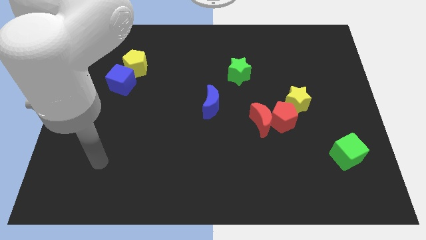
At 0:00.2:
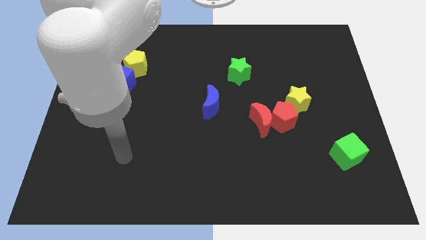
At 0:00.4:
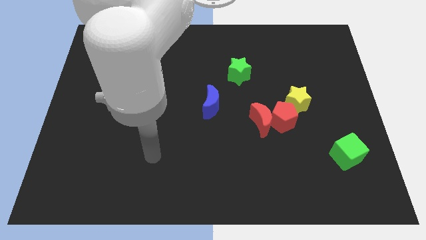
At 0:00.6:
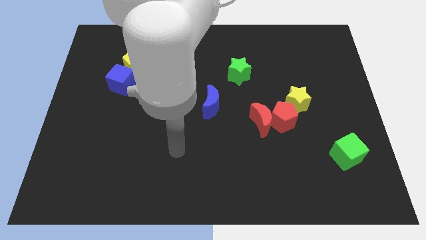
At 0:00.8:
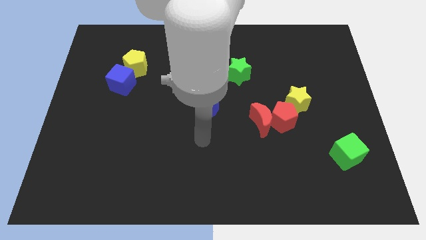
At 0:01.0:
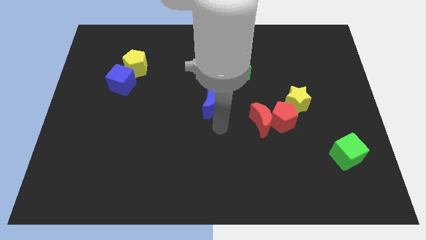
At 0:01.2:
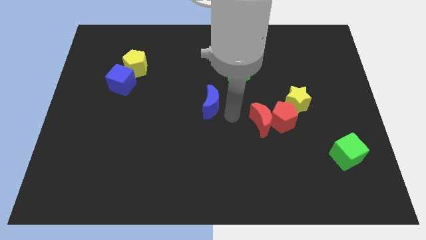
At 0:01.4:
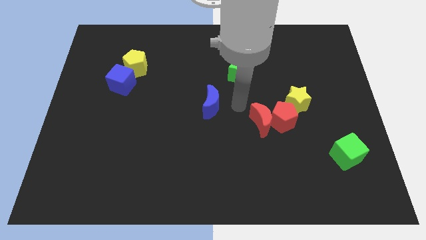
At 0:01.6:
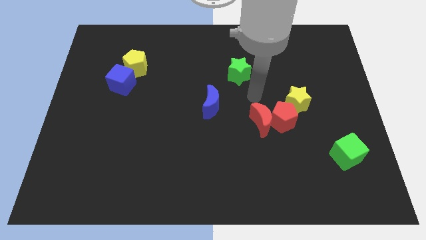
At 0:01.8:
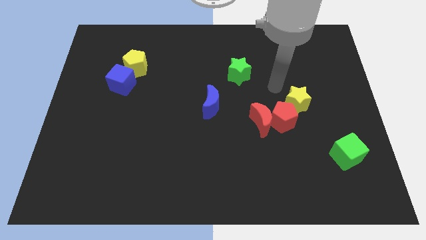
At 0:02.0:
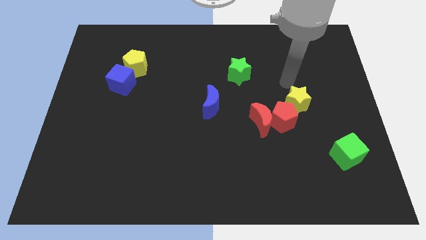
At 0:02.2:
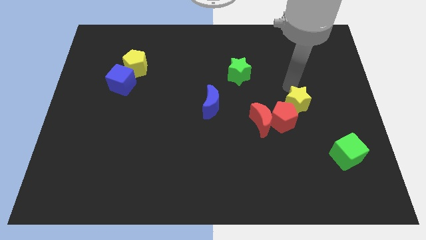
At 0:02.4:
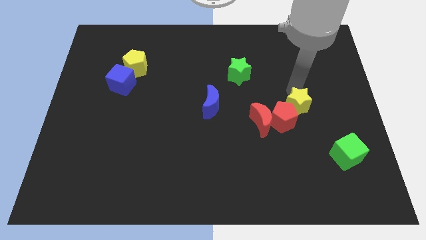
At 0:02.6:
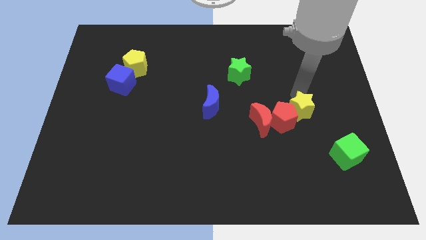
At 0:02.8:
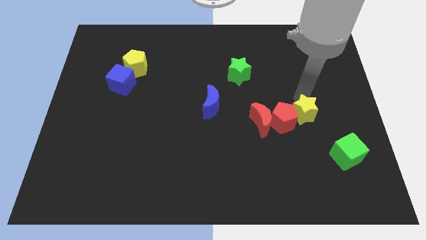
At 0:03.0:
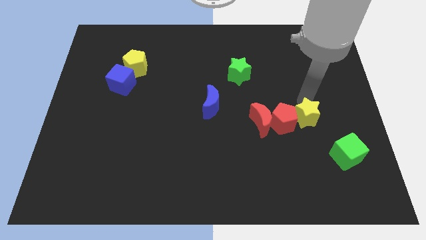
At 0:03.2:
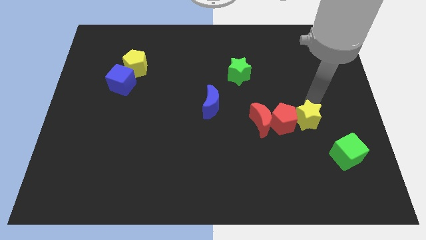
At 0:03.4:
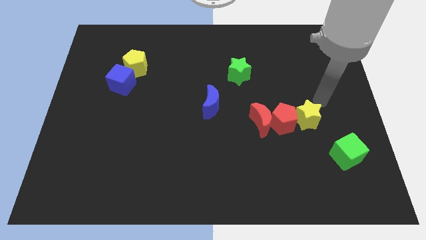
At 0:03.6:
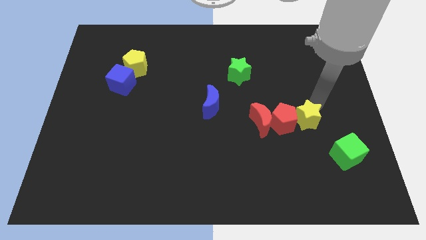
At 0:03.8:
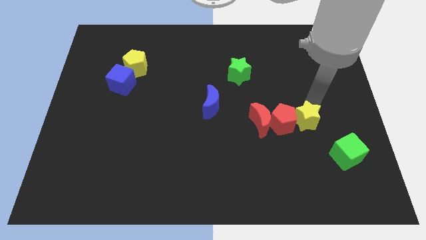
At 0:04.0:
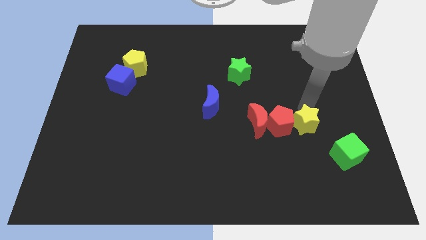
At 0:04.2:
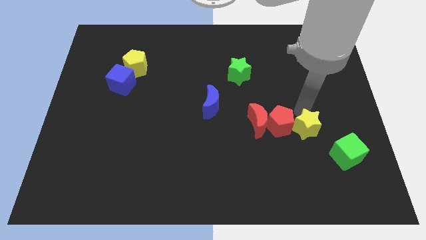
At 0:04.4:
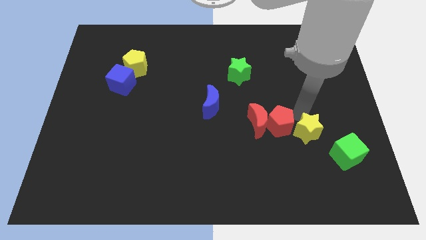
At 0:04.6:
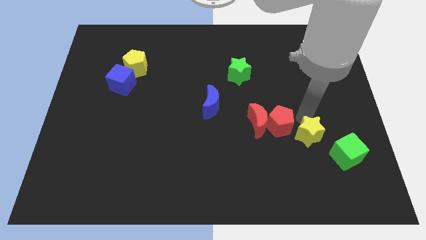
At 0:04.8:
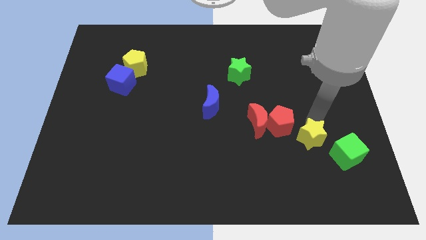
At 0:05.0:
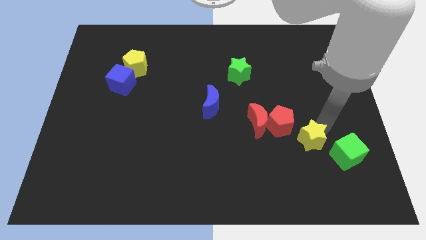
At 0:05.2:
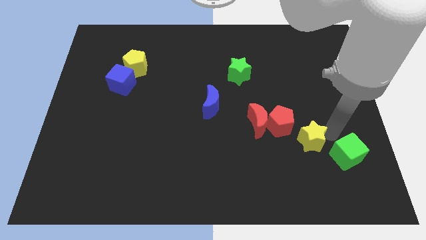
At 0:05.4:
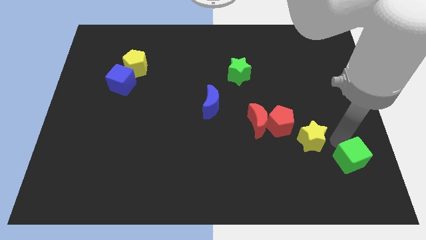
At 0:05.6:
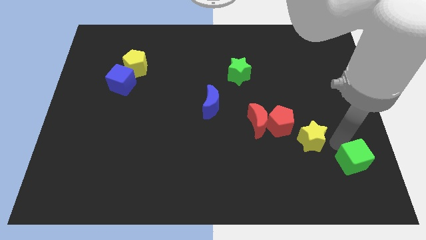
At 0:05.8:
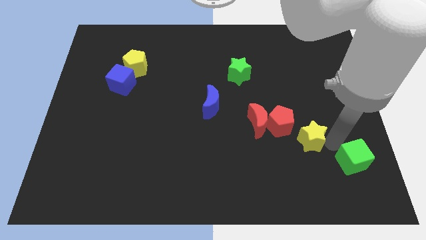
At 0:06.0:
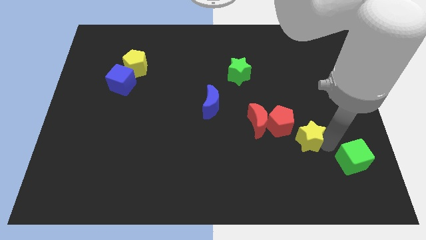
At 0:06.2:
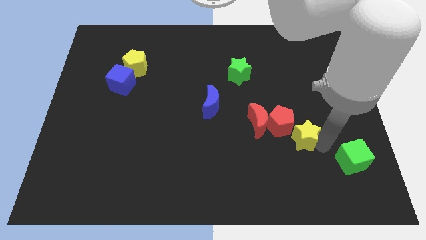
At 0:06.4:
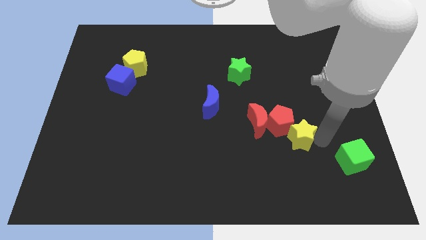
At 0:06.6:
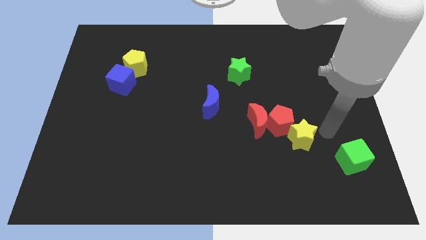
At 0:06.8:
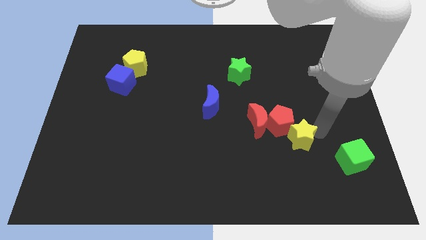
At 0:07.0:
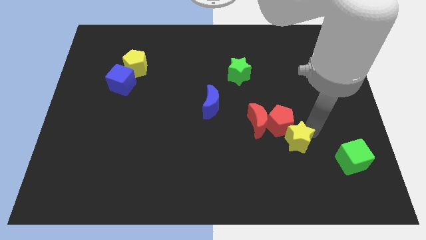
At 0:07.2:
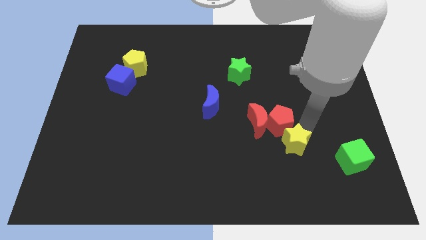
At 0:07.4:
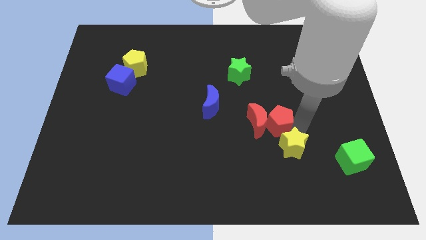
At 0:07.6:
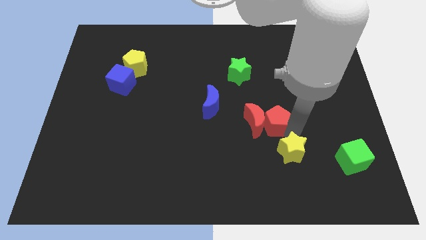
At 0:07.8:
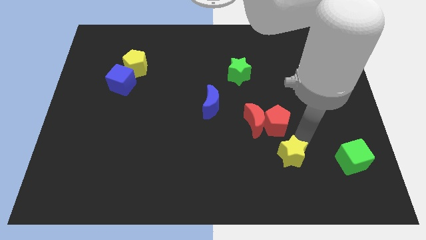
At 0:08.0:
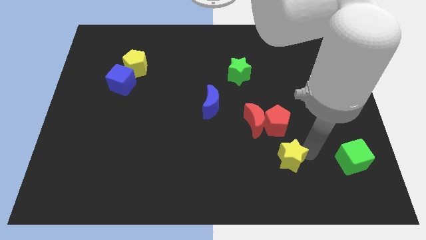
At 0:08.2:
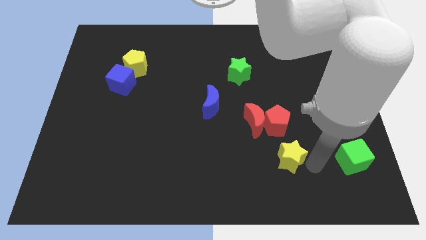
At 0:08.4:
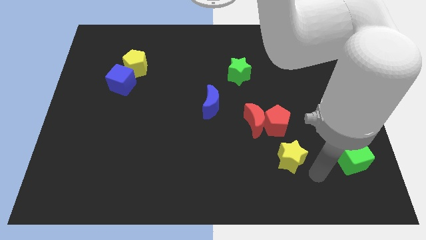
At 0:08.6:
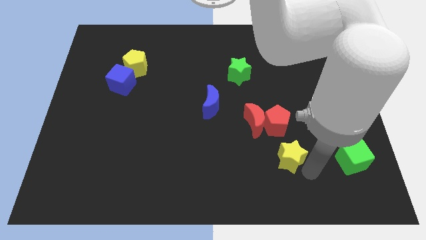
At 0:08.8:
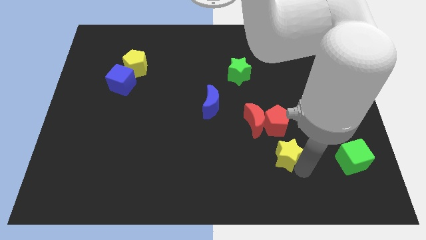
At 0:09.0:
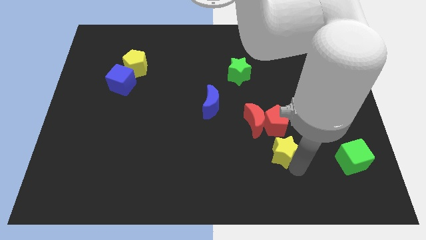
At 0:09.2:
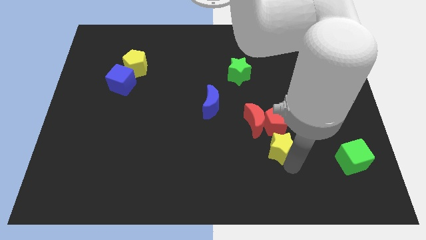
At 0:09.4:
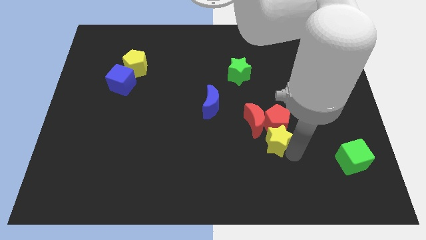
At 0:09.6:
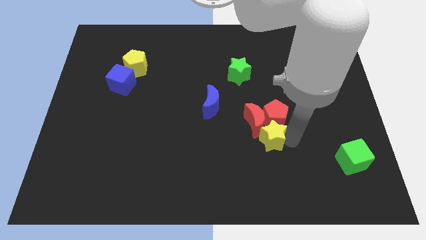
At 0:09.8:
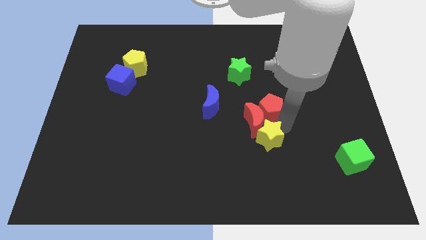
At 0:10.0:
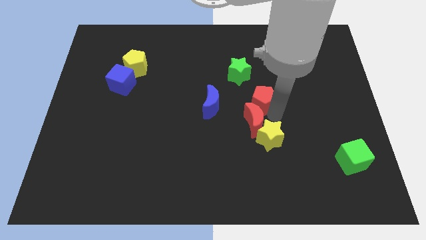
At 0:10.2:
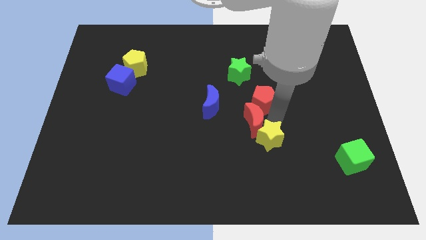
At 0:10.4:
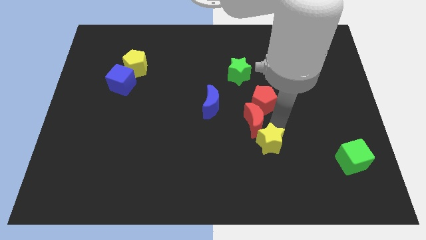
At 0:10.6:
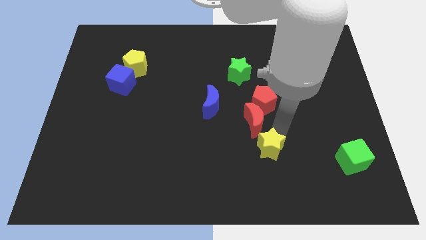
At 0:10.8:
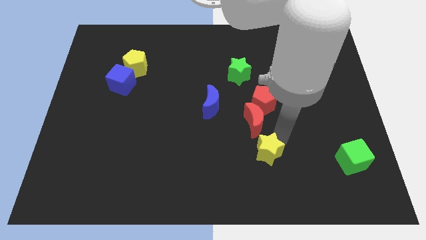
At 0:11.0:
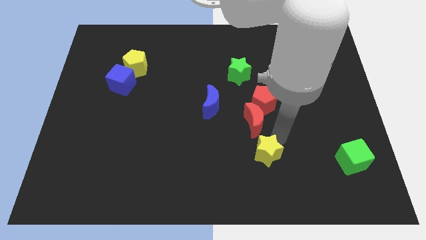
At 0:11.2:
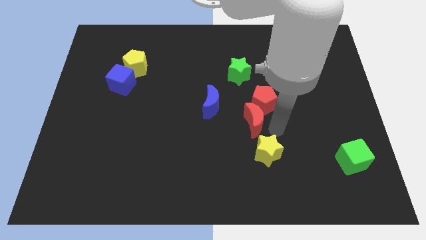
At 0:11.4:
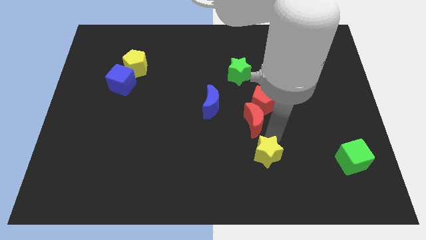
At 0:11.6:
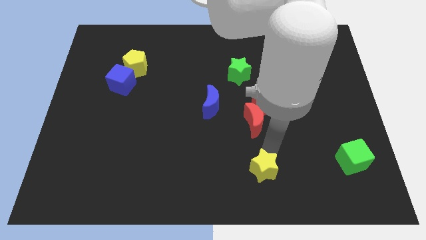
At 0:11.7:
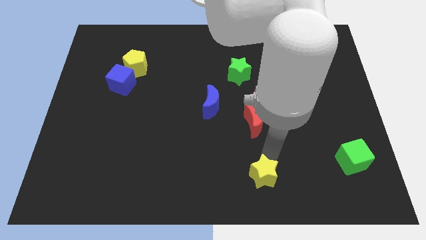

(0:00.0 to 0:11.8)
slide the yellow star to the bottom side

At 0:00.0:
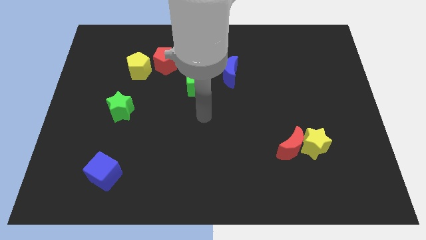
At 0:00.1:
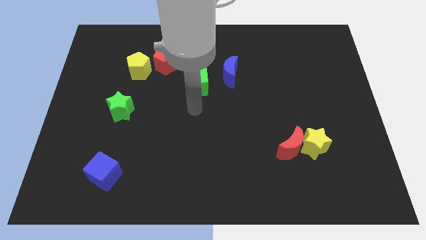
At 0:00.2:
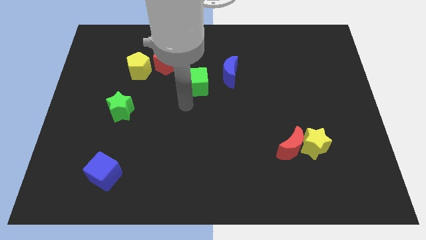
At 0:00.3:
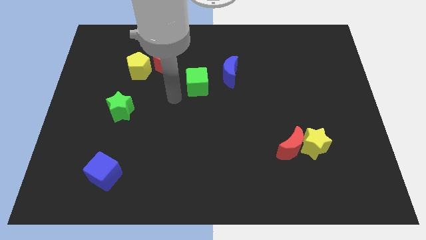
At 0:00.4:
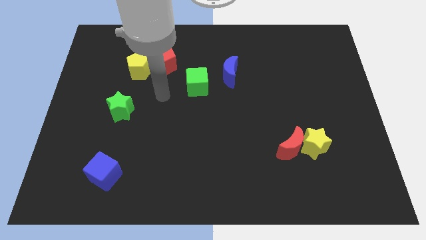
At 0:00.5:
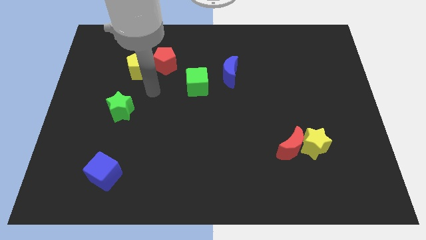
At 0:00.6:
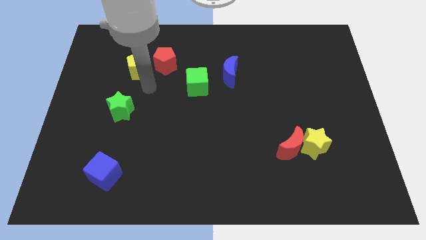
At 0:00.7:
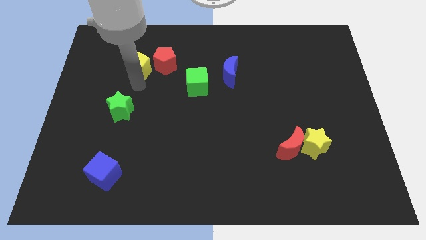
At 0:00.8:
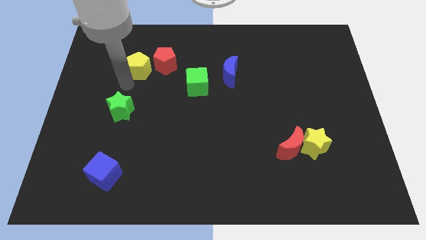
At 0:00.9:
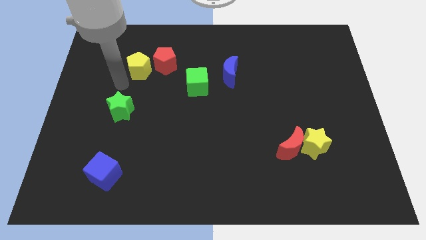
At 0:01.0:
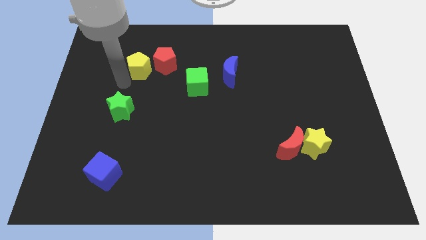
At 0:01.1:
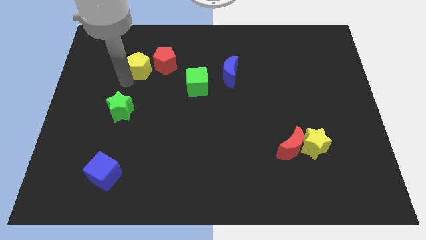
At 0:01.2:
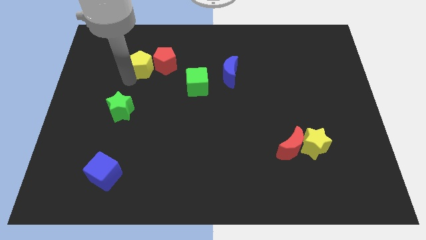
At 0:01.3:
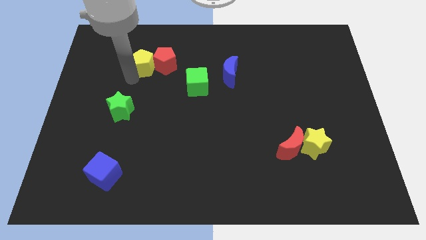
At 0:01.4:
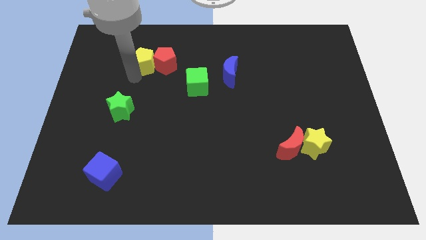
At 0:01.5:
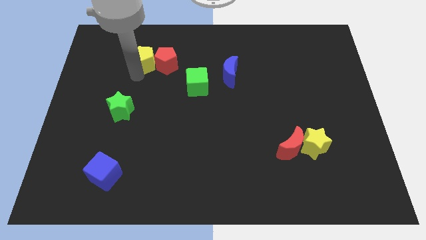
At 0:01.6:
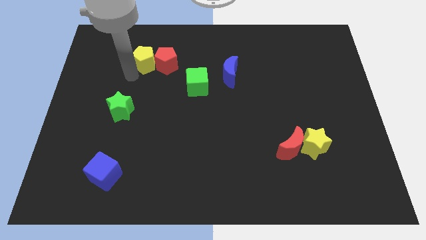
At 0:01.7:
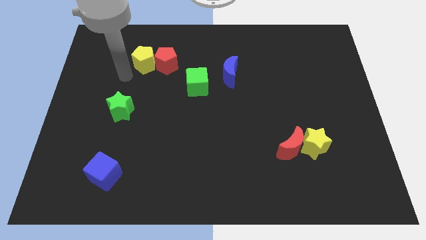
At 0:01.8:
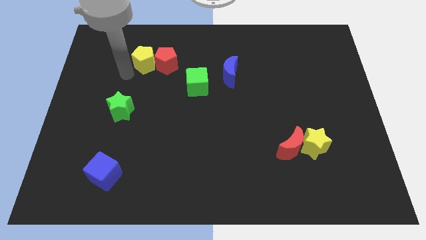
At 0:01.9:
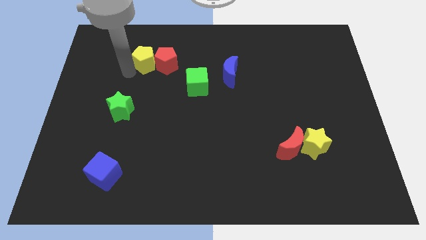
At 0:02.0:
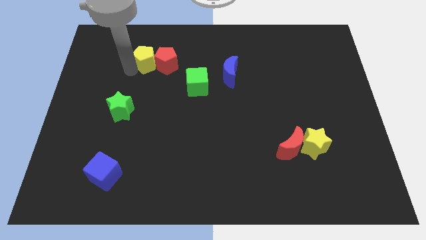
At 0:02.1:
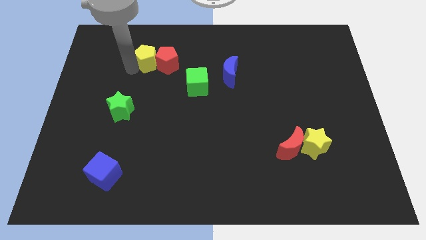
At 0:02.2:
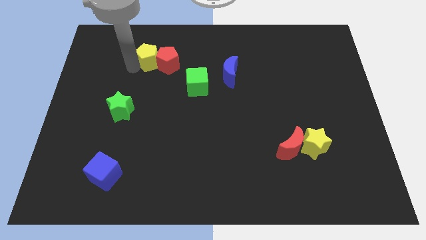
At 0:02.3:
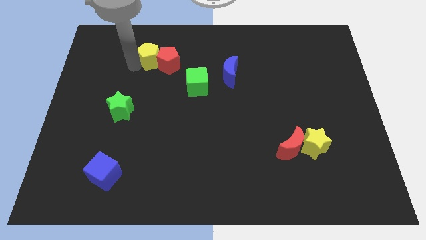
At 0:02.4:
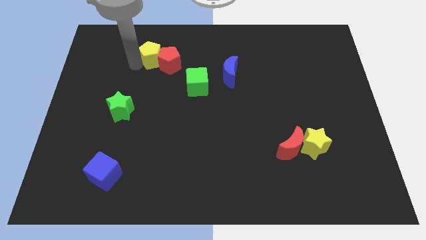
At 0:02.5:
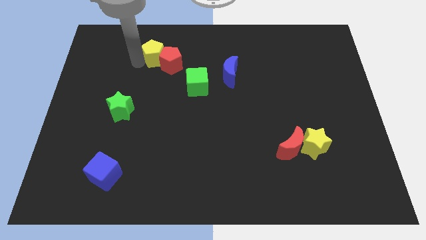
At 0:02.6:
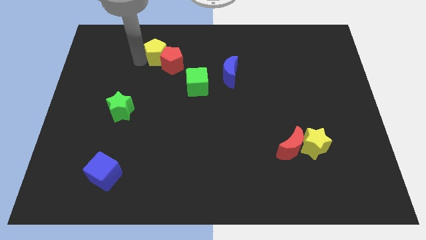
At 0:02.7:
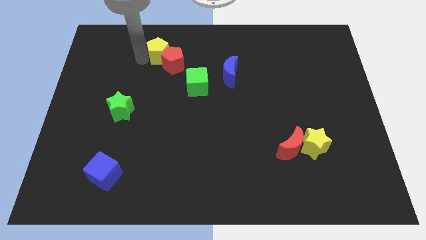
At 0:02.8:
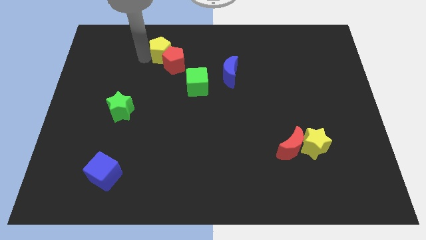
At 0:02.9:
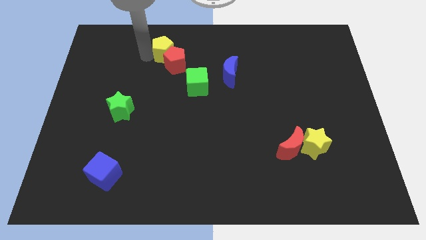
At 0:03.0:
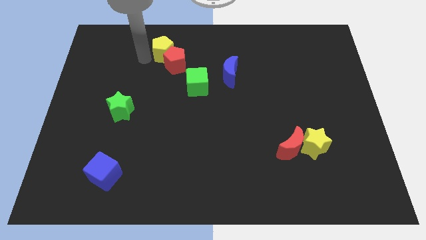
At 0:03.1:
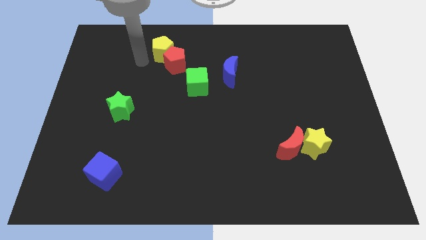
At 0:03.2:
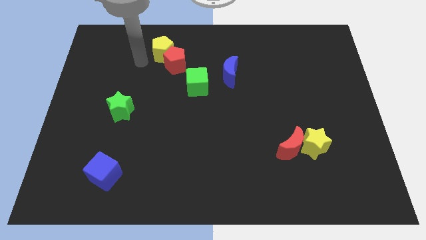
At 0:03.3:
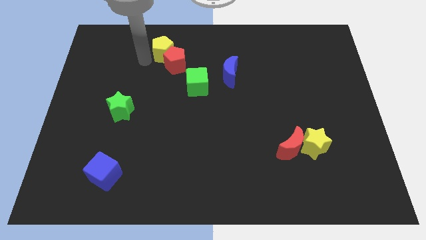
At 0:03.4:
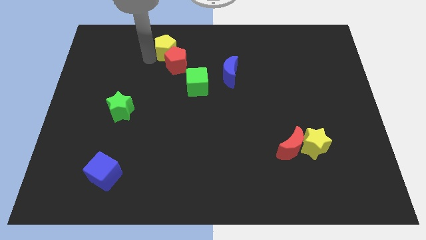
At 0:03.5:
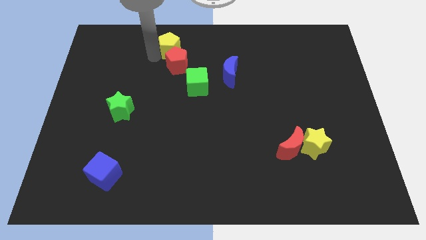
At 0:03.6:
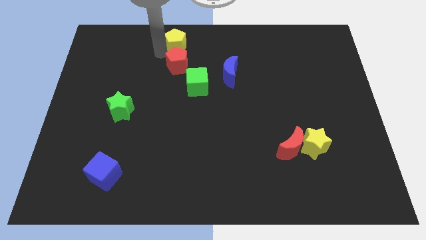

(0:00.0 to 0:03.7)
slide the yellow pentagon to the top
